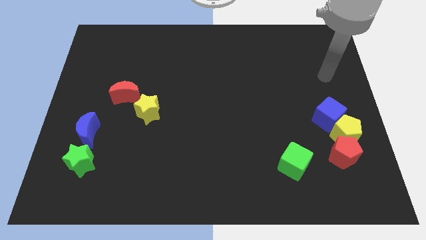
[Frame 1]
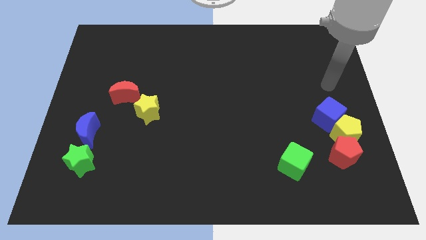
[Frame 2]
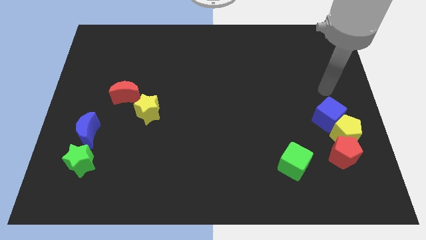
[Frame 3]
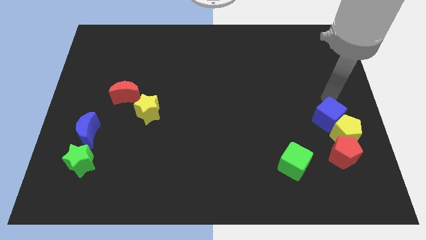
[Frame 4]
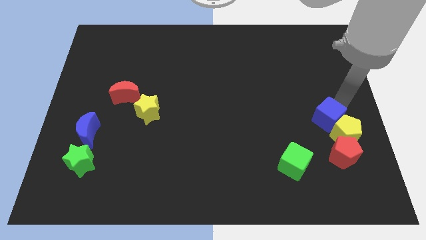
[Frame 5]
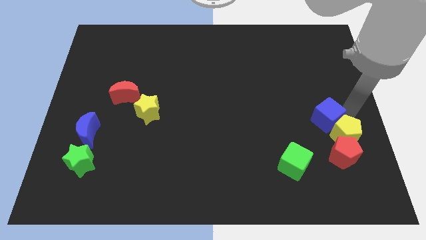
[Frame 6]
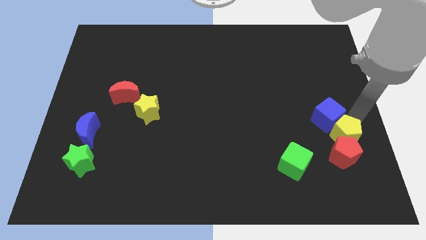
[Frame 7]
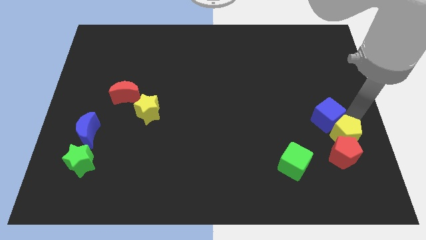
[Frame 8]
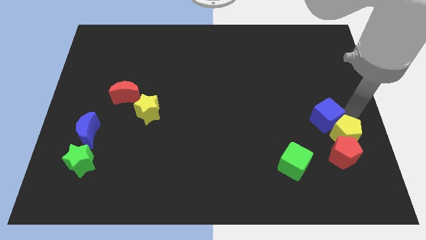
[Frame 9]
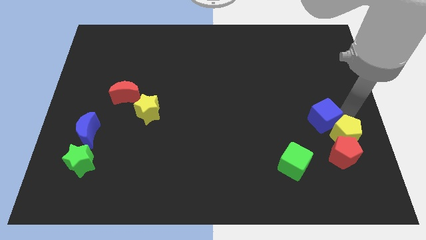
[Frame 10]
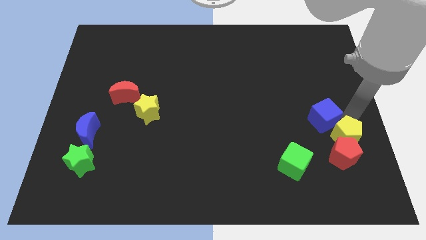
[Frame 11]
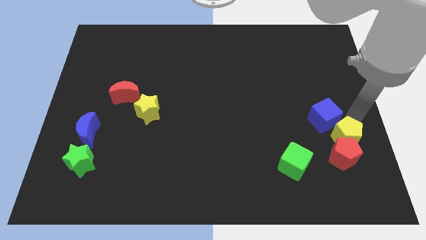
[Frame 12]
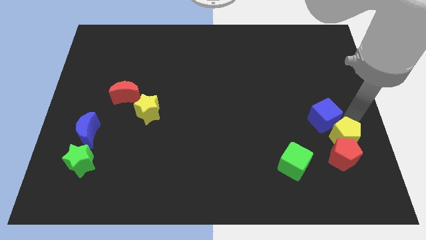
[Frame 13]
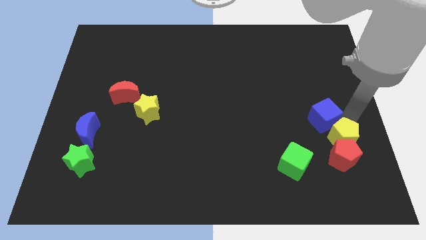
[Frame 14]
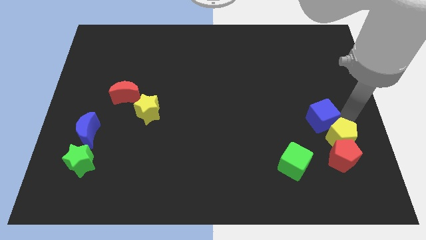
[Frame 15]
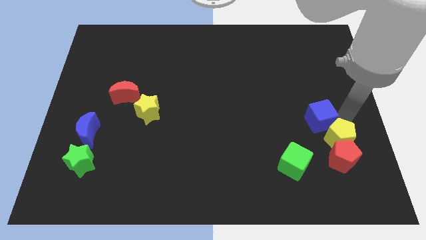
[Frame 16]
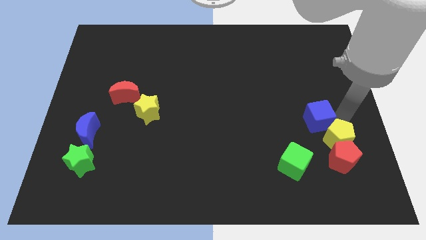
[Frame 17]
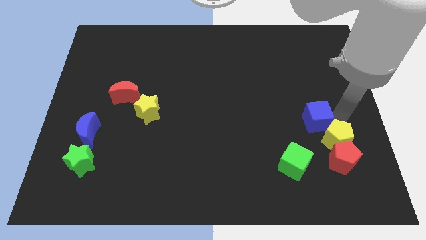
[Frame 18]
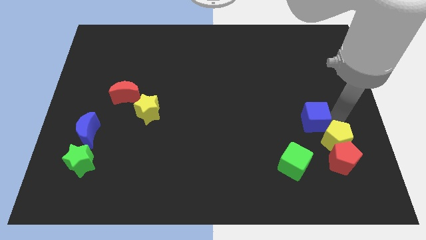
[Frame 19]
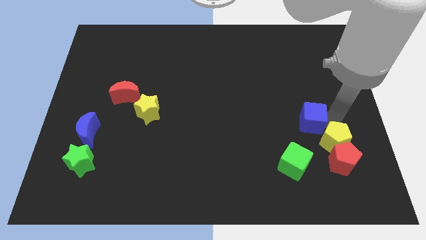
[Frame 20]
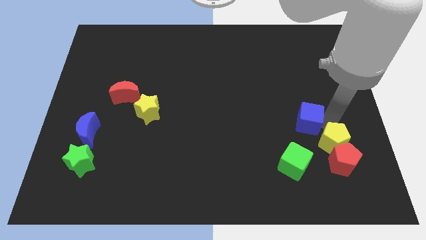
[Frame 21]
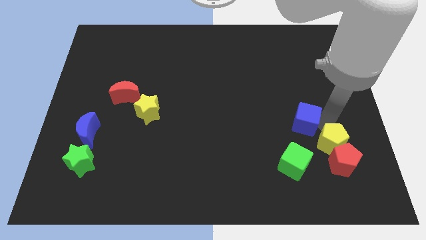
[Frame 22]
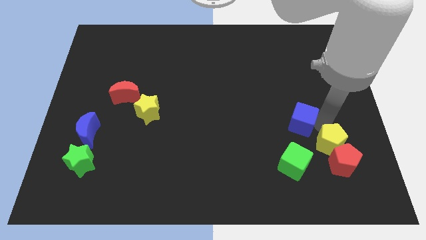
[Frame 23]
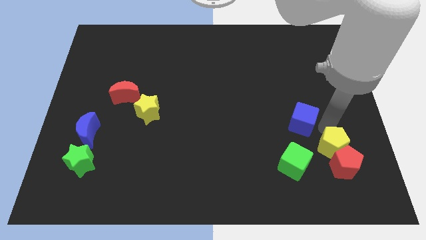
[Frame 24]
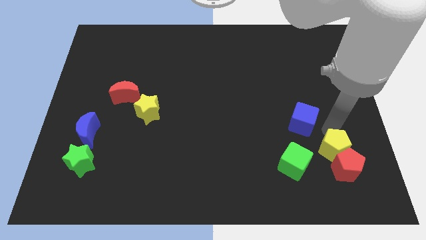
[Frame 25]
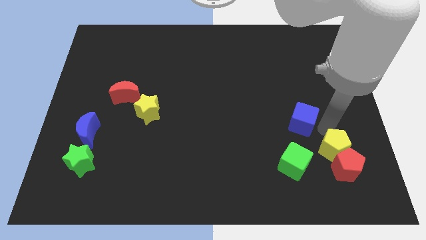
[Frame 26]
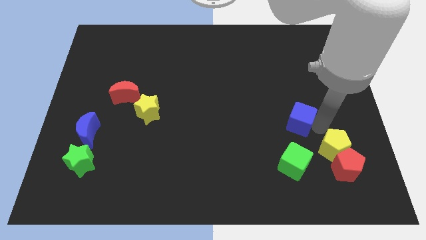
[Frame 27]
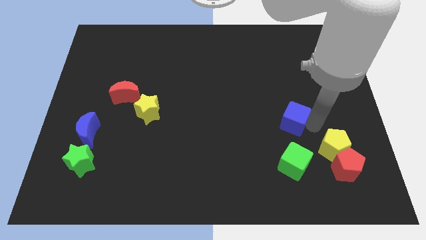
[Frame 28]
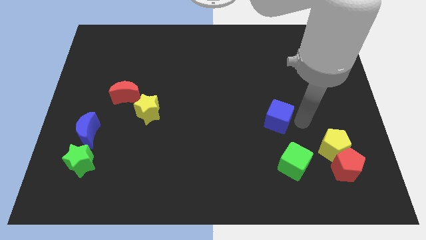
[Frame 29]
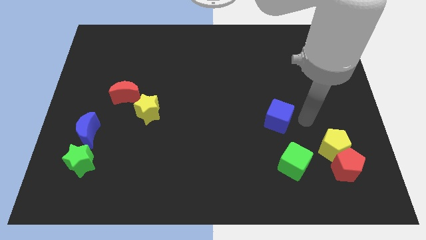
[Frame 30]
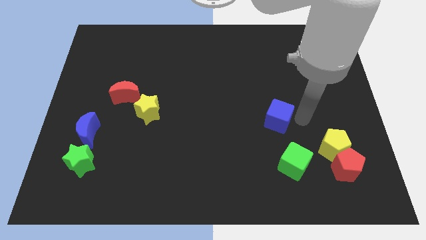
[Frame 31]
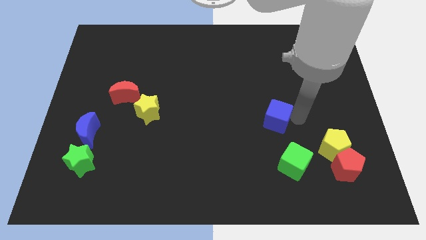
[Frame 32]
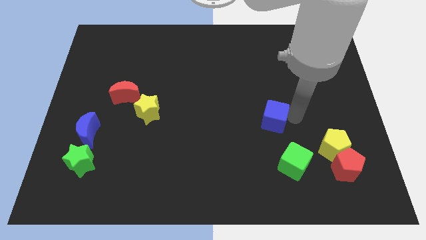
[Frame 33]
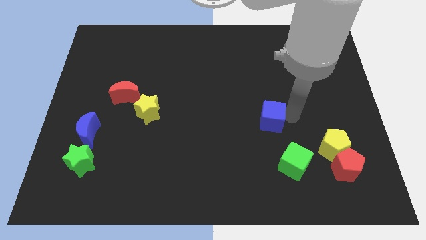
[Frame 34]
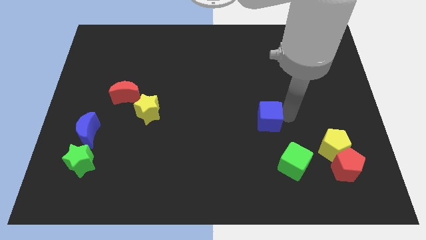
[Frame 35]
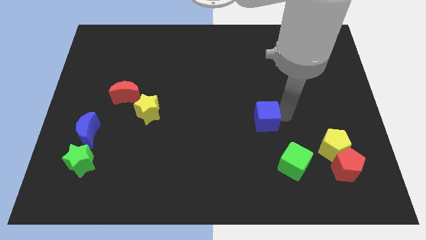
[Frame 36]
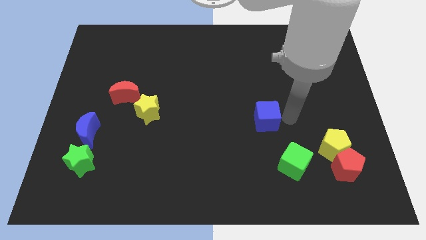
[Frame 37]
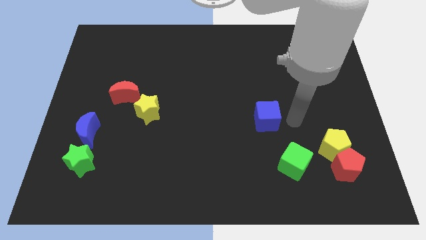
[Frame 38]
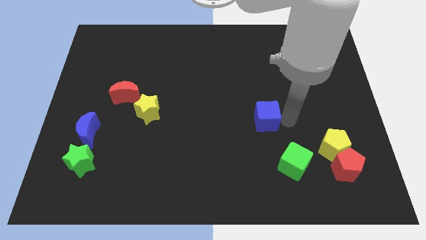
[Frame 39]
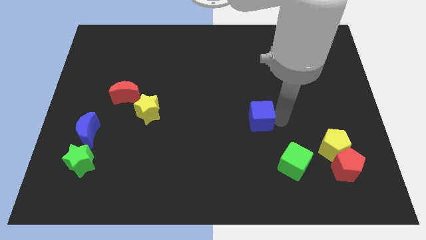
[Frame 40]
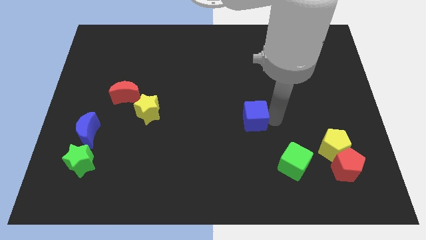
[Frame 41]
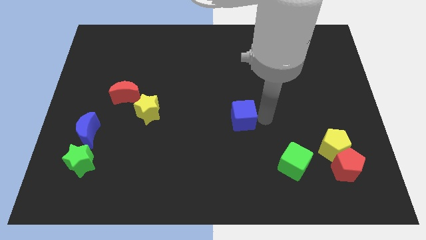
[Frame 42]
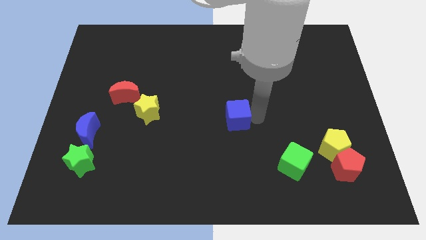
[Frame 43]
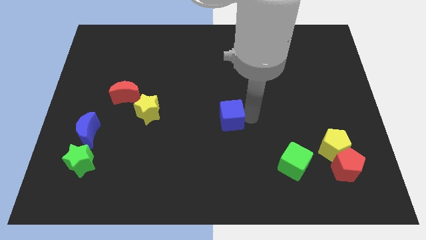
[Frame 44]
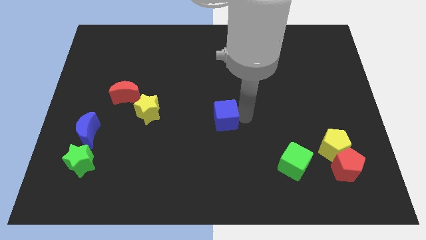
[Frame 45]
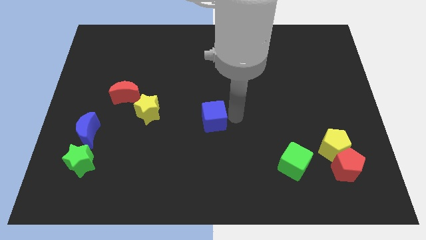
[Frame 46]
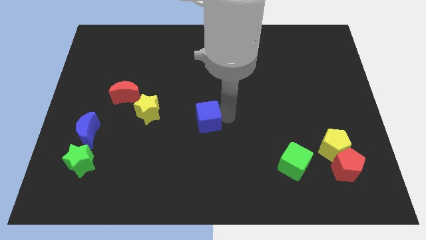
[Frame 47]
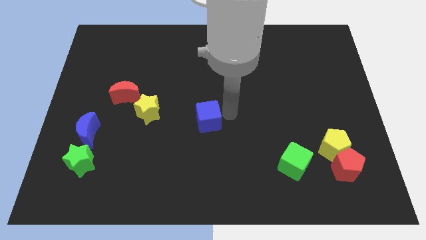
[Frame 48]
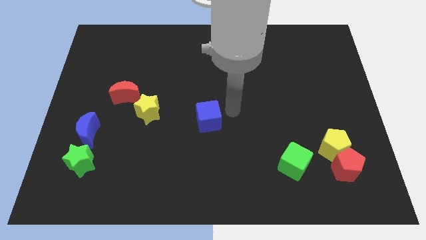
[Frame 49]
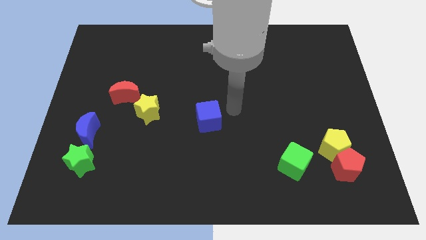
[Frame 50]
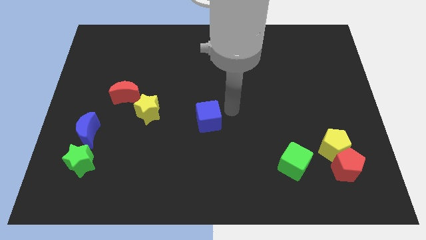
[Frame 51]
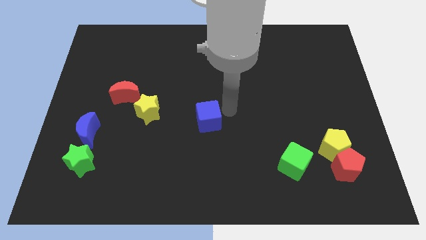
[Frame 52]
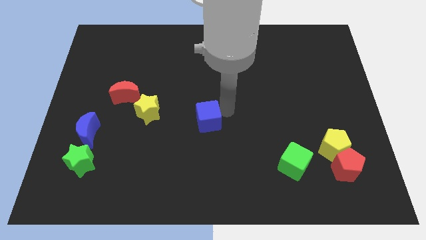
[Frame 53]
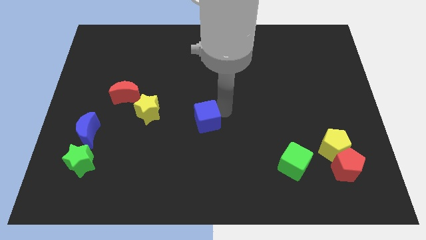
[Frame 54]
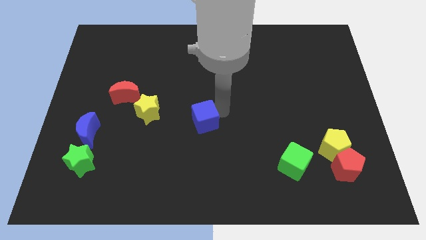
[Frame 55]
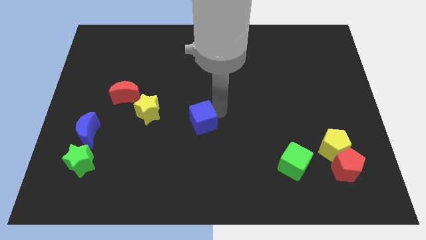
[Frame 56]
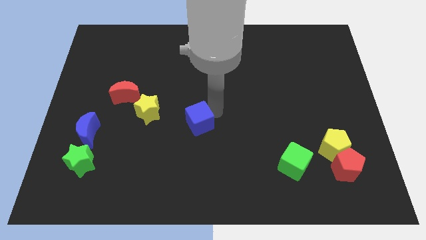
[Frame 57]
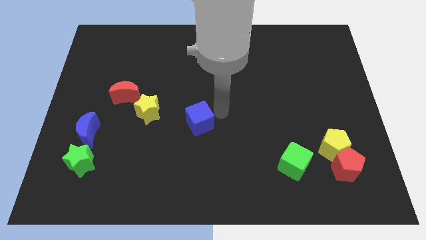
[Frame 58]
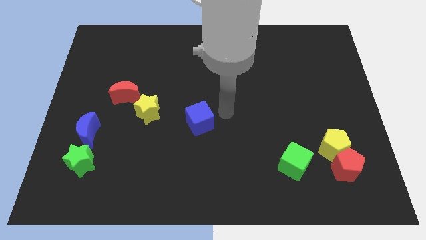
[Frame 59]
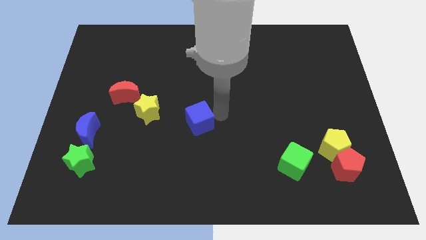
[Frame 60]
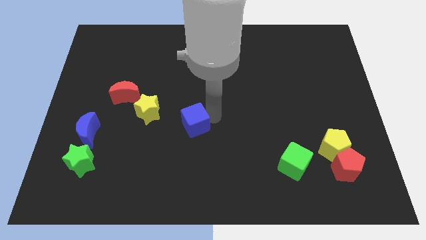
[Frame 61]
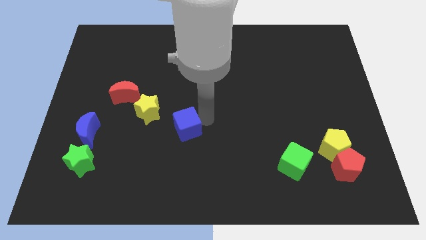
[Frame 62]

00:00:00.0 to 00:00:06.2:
slide the blue cube diagonally down and to the right of the yellow star

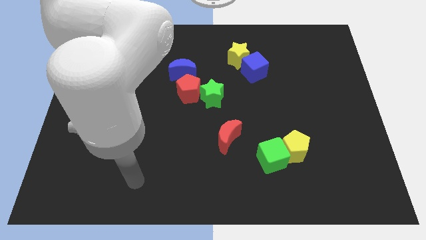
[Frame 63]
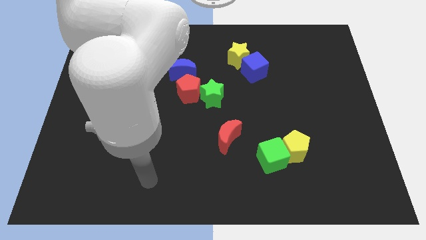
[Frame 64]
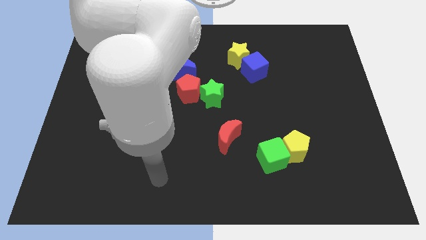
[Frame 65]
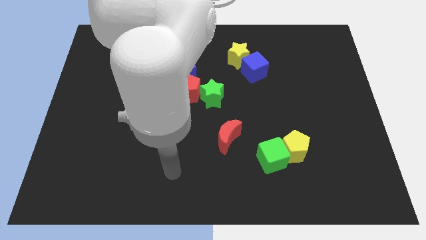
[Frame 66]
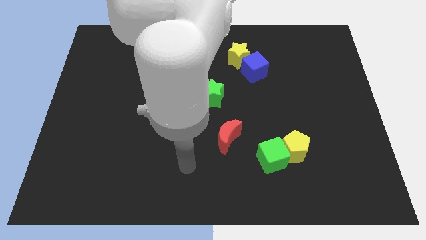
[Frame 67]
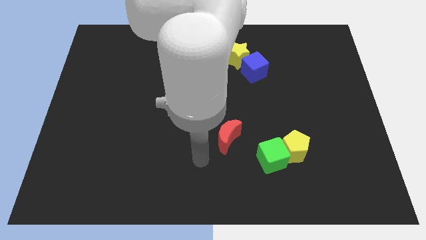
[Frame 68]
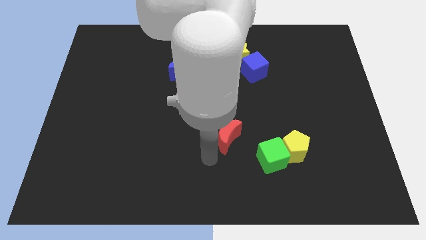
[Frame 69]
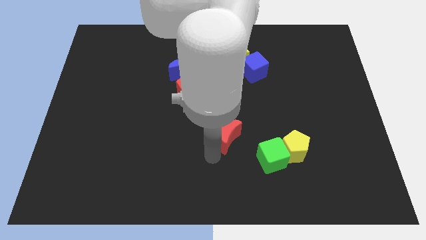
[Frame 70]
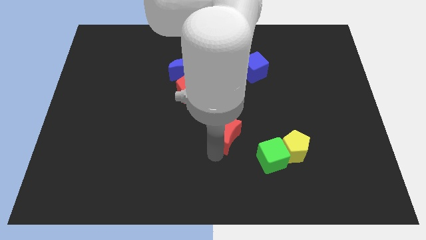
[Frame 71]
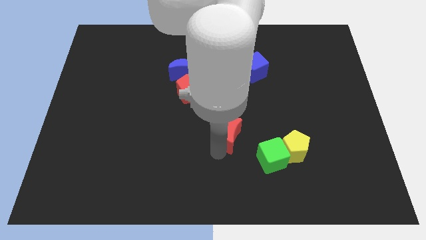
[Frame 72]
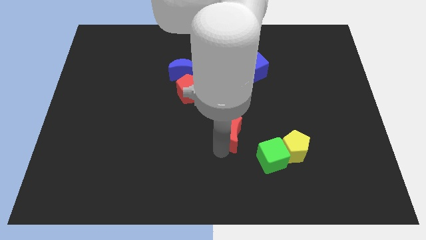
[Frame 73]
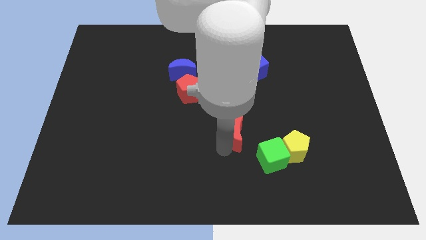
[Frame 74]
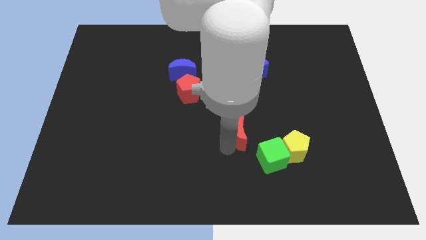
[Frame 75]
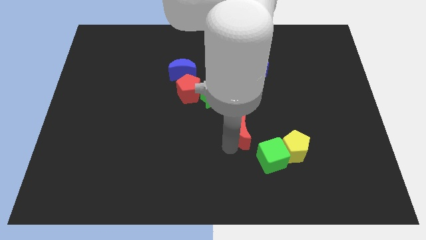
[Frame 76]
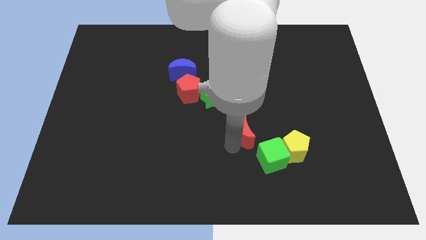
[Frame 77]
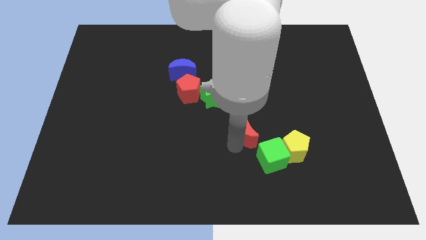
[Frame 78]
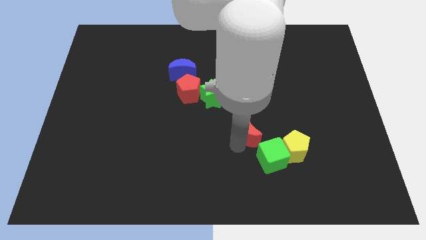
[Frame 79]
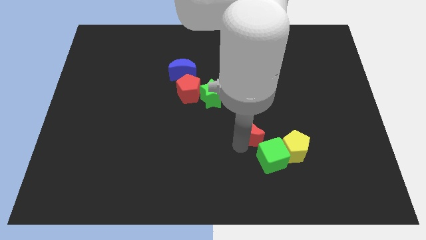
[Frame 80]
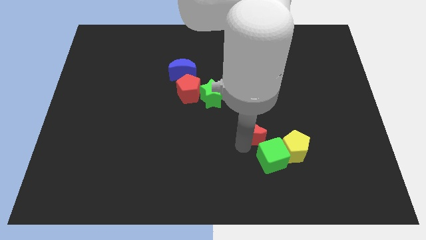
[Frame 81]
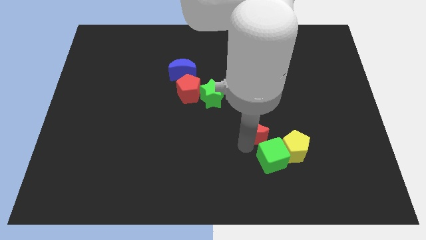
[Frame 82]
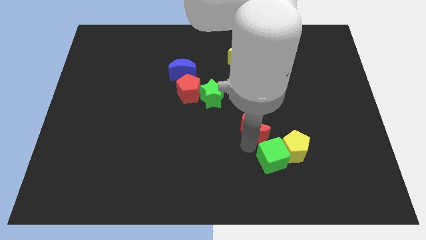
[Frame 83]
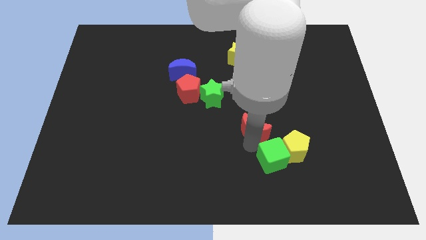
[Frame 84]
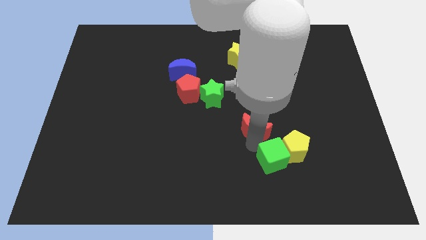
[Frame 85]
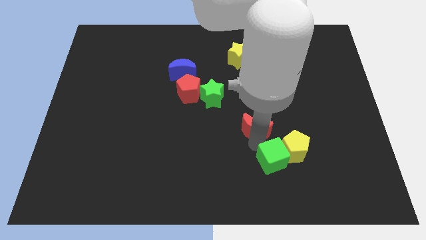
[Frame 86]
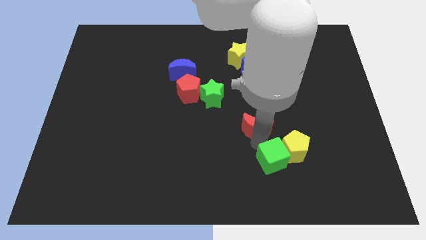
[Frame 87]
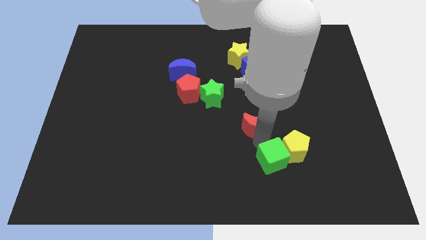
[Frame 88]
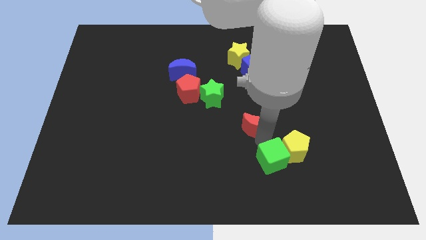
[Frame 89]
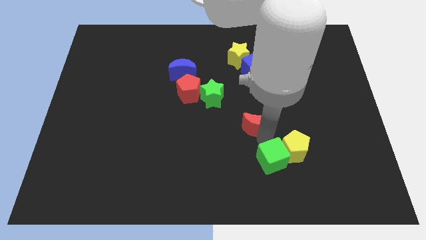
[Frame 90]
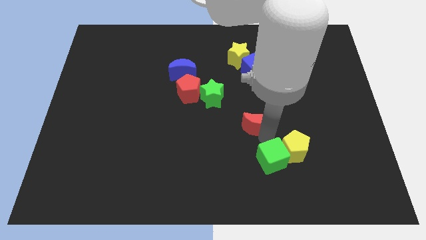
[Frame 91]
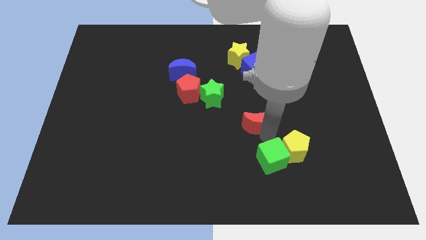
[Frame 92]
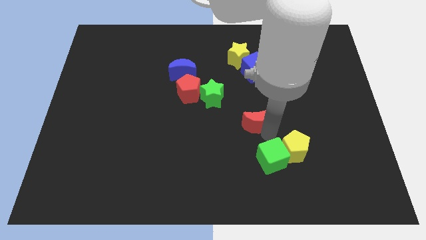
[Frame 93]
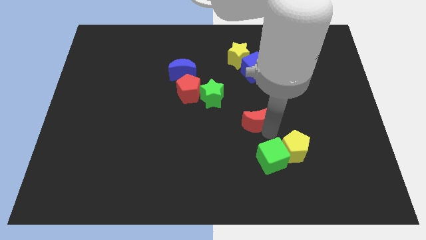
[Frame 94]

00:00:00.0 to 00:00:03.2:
put the red moon below the blue cube
